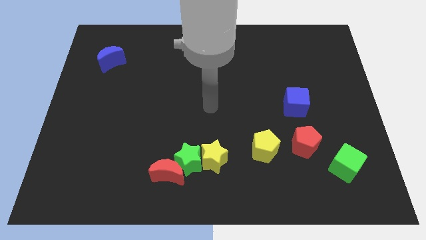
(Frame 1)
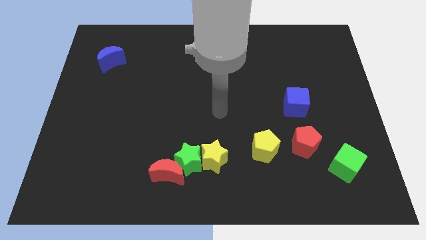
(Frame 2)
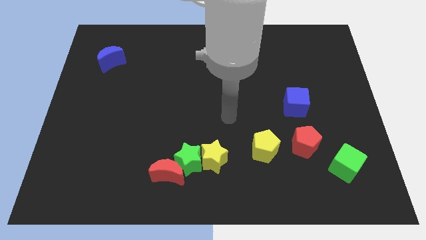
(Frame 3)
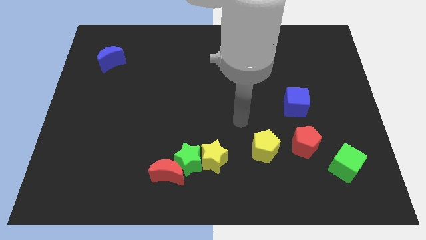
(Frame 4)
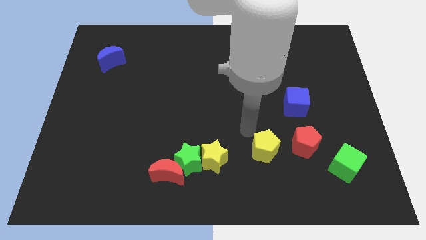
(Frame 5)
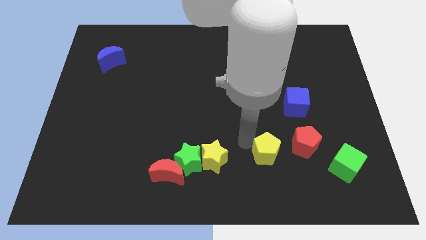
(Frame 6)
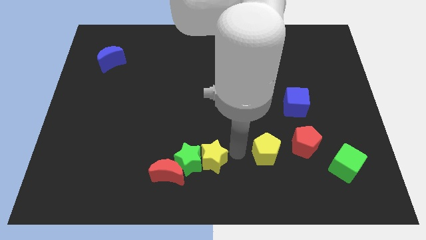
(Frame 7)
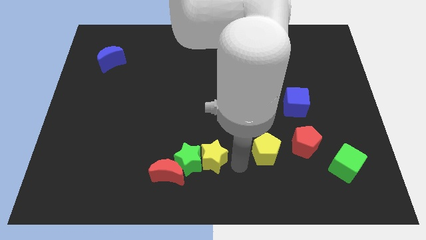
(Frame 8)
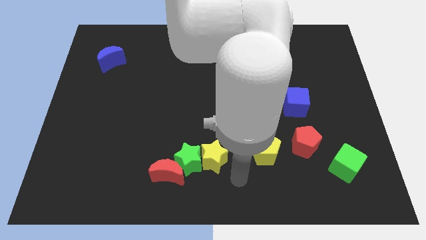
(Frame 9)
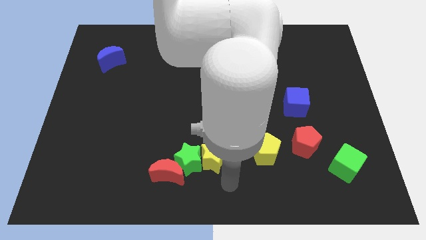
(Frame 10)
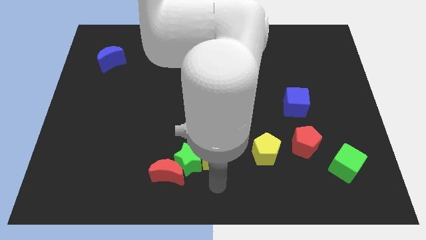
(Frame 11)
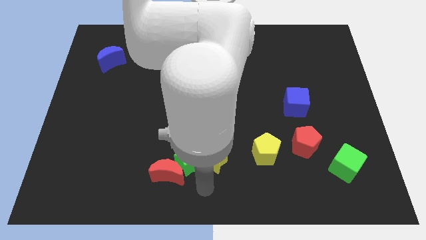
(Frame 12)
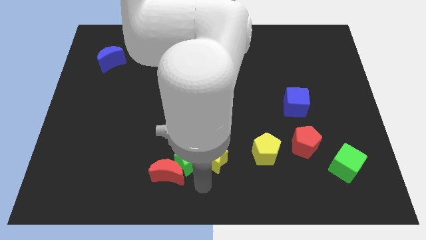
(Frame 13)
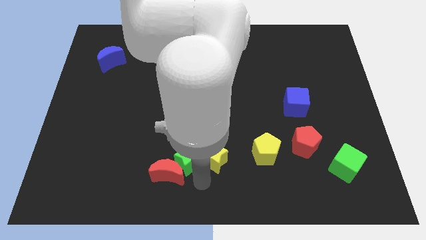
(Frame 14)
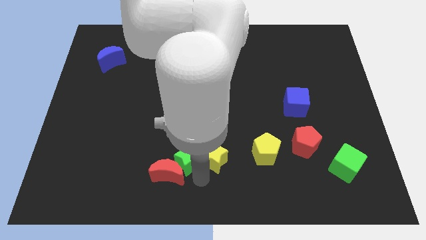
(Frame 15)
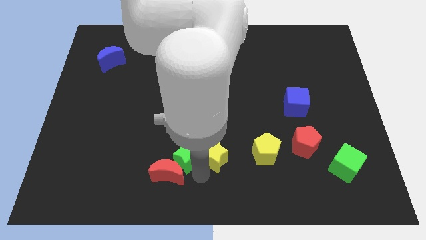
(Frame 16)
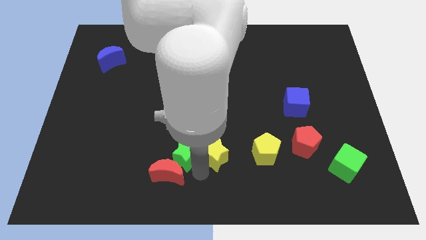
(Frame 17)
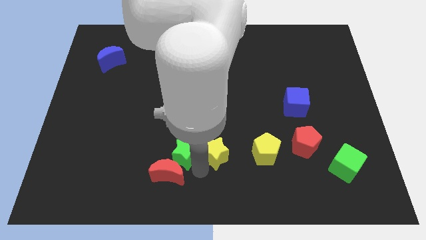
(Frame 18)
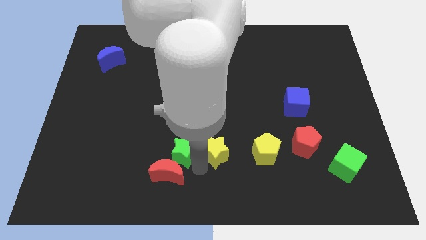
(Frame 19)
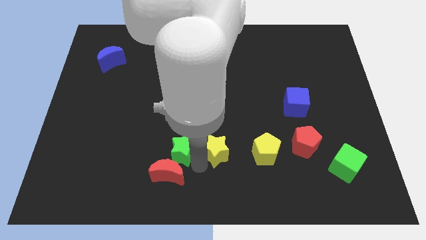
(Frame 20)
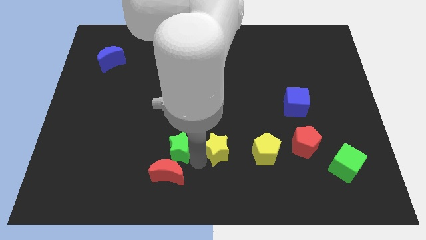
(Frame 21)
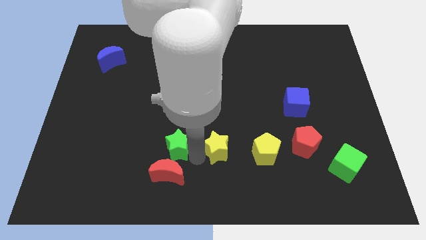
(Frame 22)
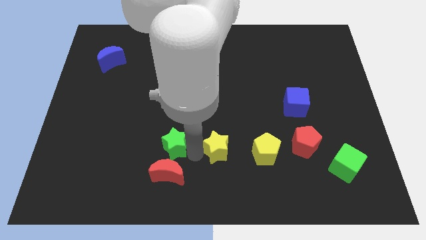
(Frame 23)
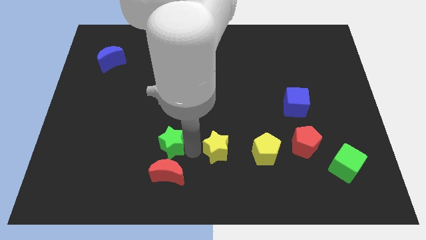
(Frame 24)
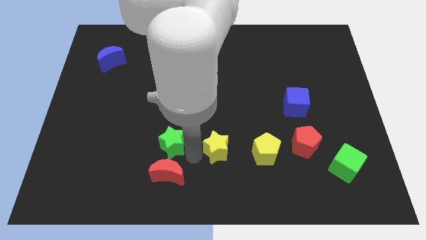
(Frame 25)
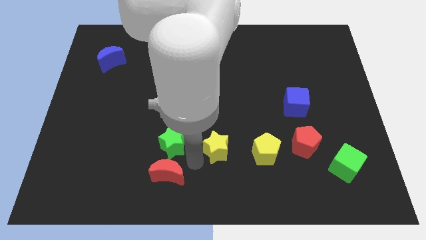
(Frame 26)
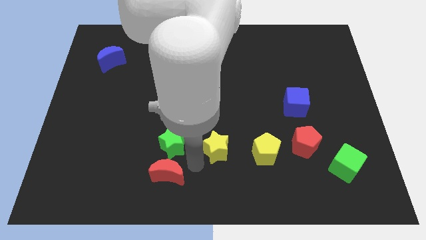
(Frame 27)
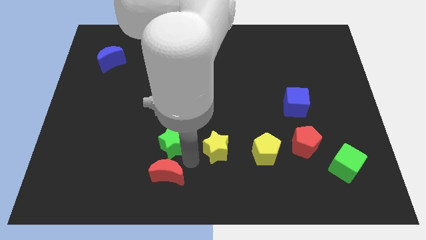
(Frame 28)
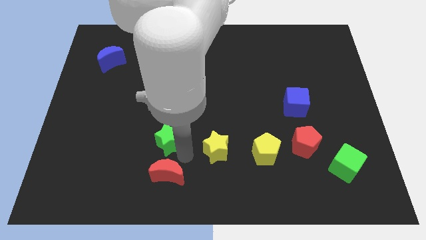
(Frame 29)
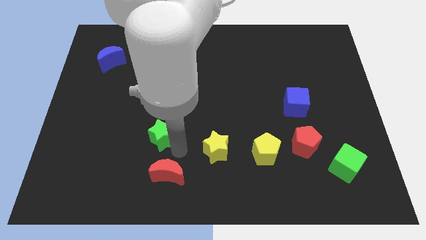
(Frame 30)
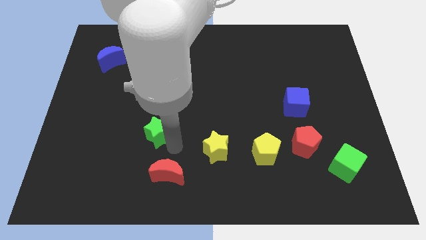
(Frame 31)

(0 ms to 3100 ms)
separate the green star from the red moon and yellow star

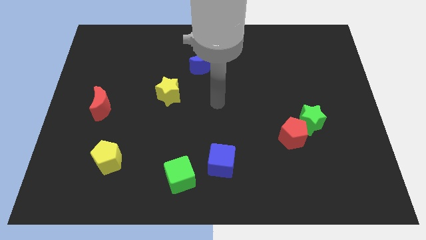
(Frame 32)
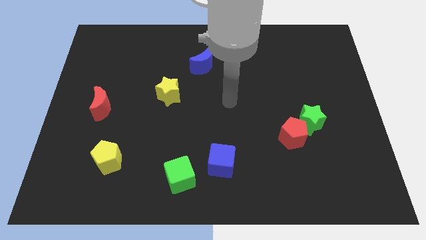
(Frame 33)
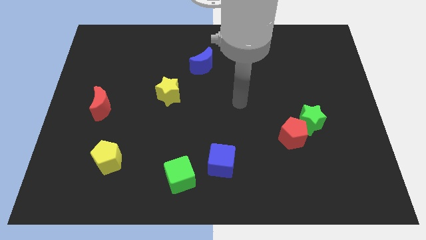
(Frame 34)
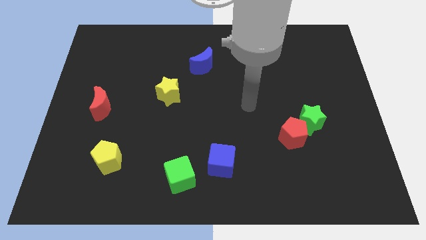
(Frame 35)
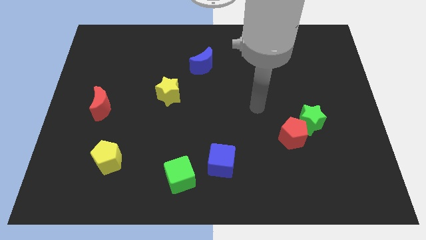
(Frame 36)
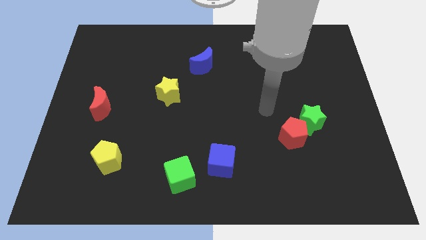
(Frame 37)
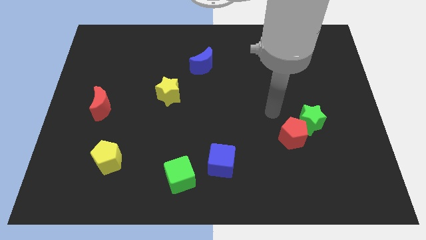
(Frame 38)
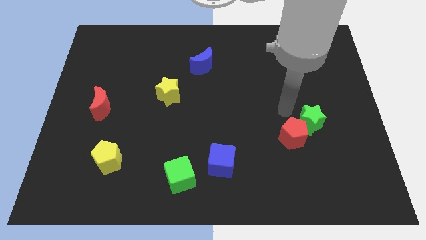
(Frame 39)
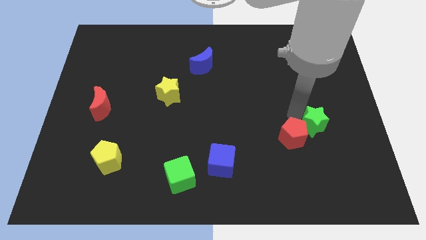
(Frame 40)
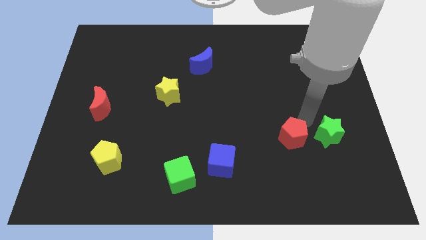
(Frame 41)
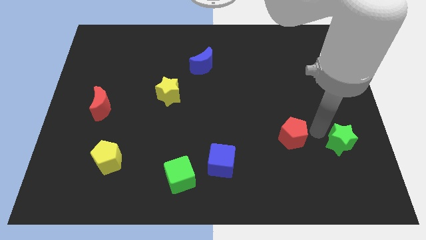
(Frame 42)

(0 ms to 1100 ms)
pull the red pentagon apart from the green star

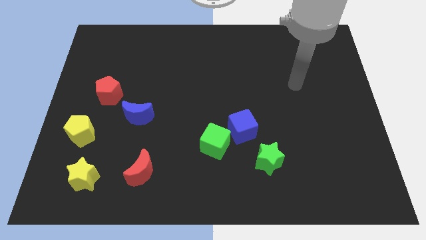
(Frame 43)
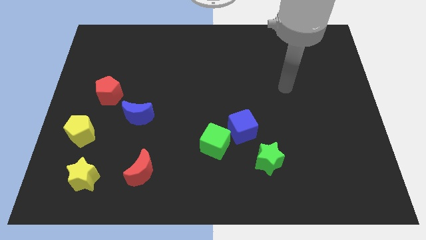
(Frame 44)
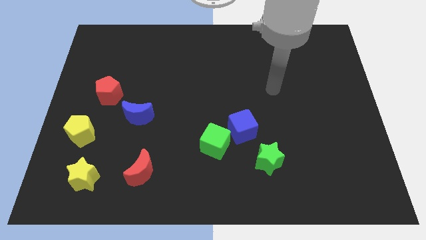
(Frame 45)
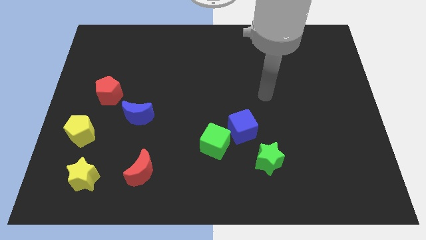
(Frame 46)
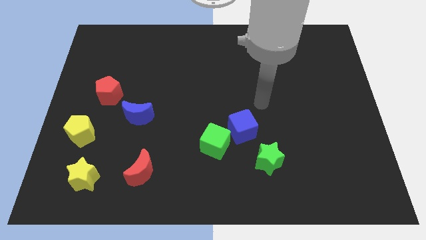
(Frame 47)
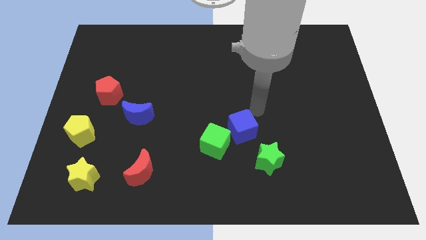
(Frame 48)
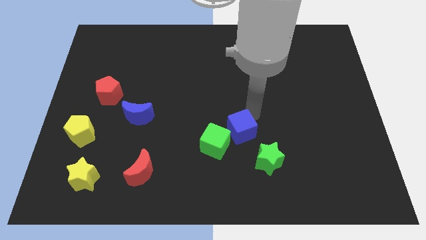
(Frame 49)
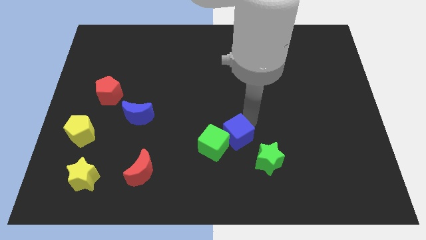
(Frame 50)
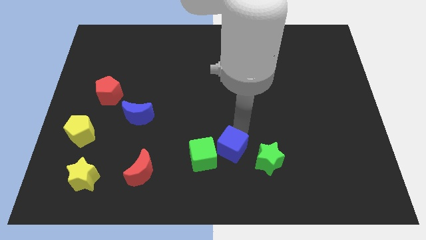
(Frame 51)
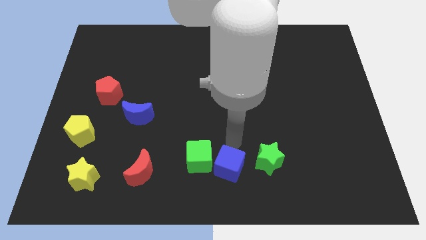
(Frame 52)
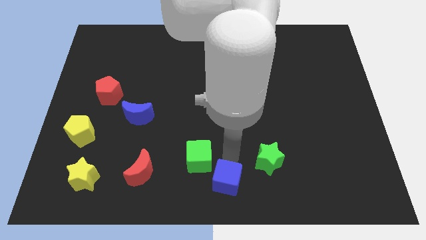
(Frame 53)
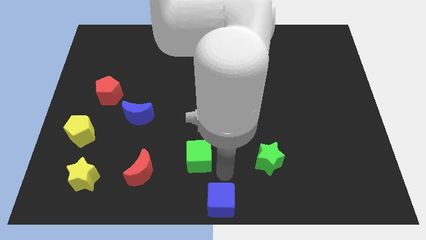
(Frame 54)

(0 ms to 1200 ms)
move the green cube away from the blue cube

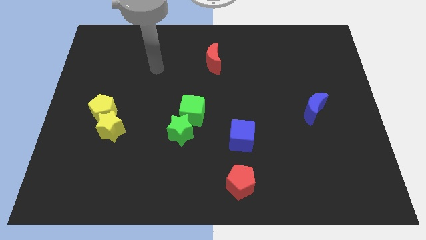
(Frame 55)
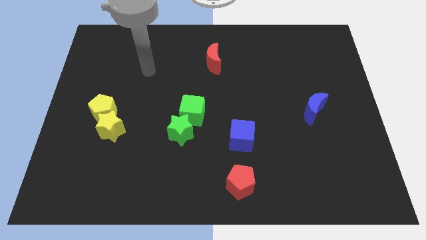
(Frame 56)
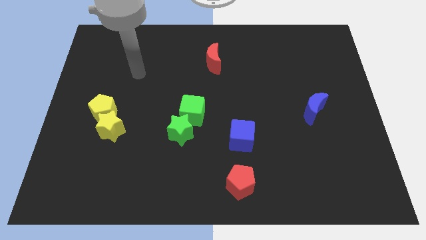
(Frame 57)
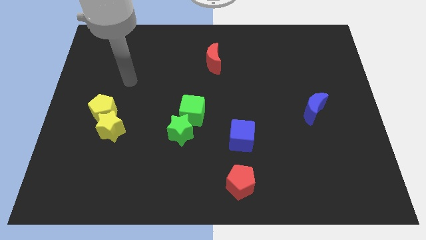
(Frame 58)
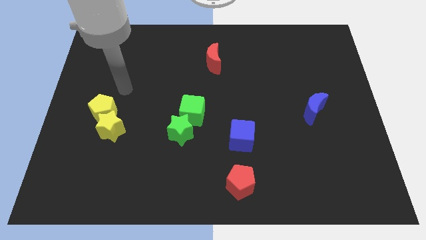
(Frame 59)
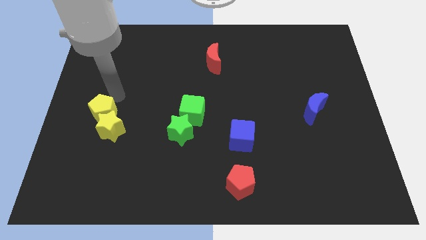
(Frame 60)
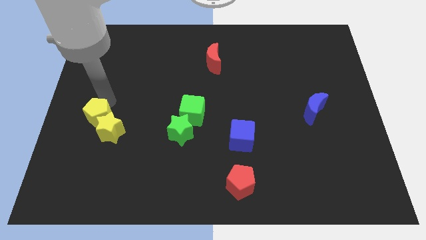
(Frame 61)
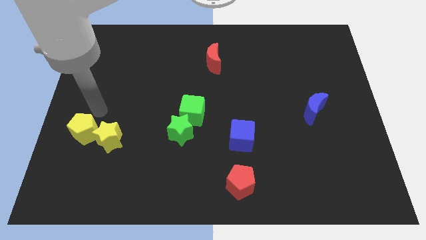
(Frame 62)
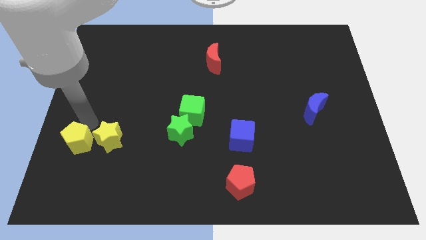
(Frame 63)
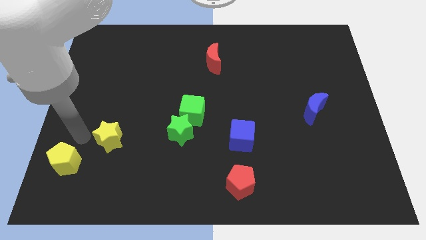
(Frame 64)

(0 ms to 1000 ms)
pull the yellow star apart from the yellow pentagon

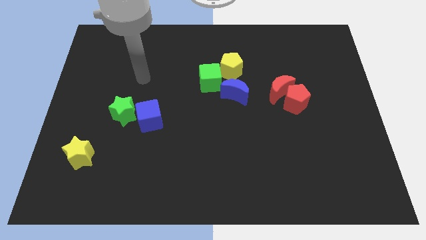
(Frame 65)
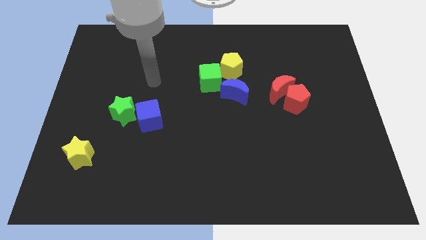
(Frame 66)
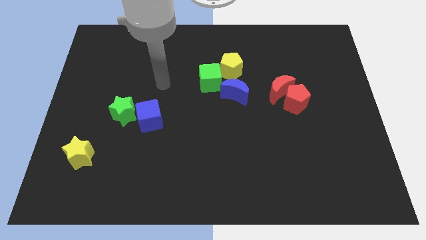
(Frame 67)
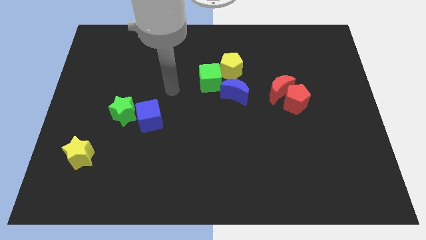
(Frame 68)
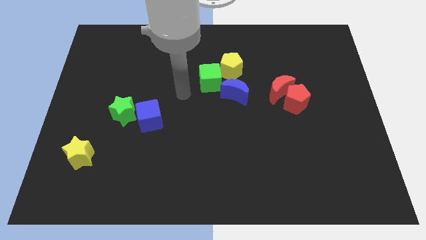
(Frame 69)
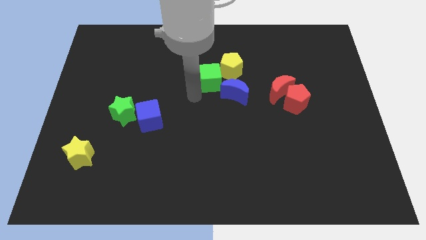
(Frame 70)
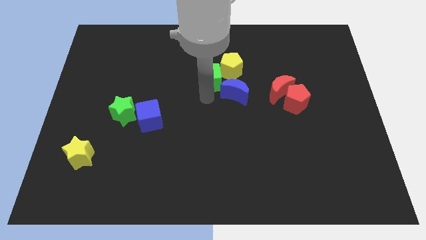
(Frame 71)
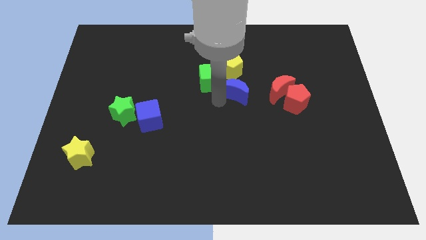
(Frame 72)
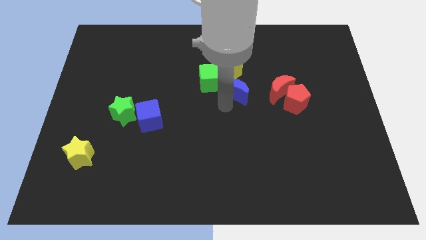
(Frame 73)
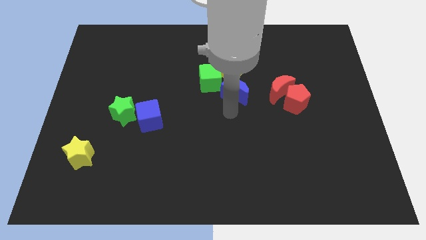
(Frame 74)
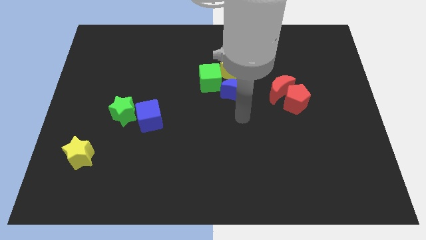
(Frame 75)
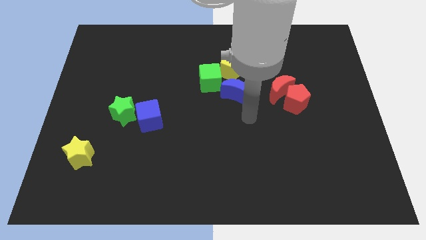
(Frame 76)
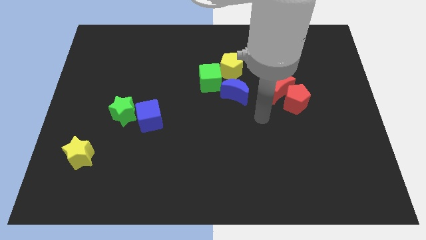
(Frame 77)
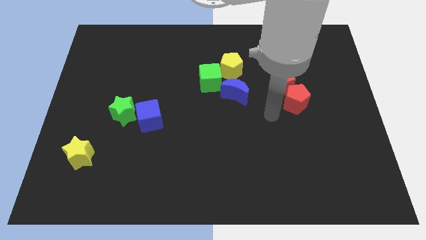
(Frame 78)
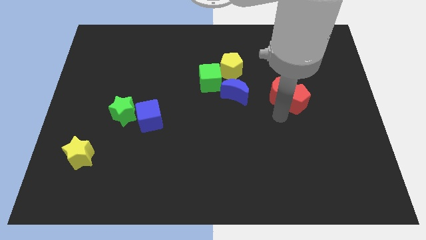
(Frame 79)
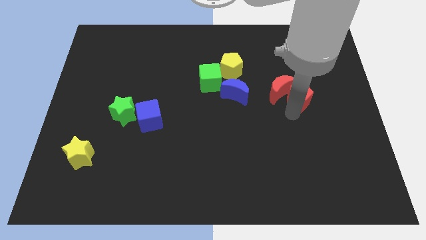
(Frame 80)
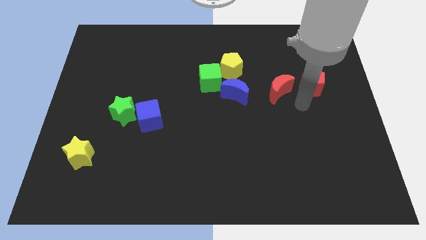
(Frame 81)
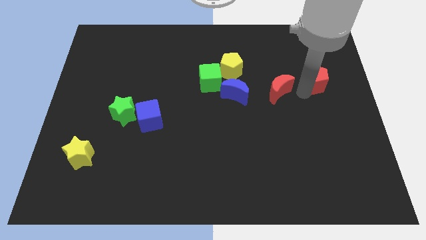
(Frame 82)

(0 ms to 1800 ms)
pull the red moon apart from the red pentagon

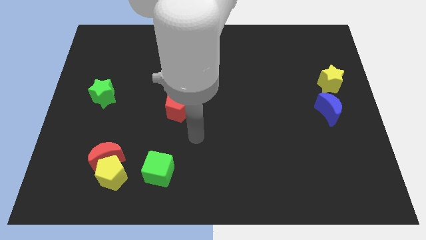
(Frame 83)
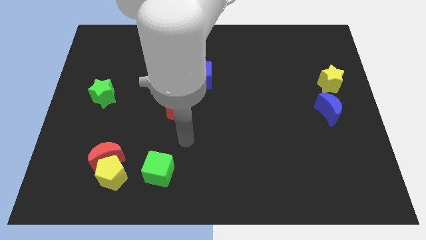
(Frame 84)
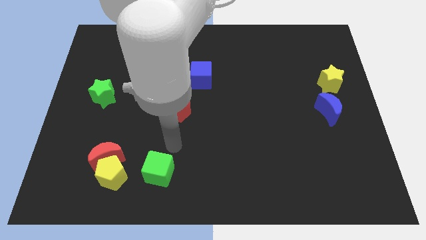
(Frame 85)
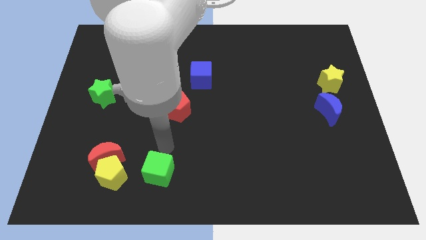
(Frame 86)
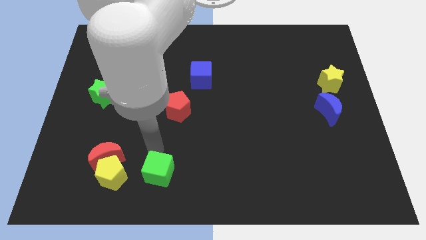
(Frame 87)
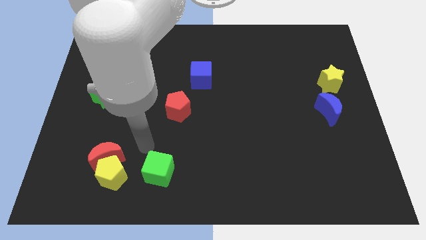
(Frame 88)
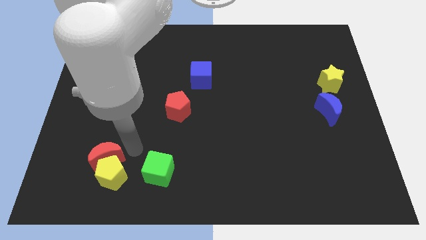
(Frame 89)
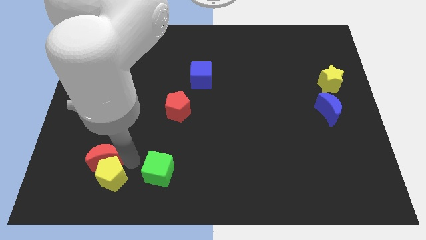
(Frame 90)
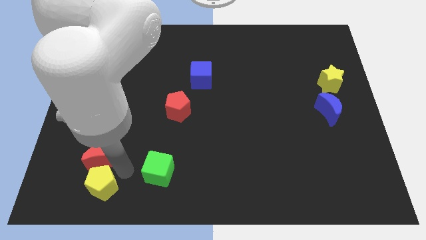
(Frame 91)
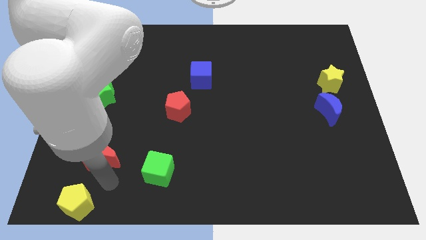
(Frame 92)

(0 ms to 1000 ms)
pull the red moon apart from the yellow pentagon
